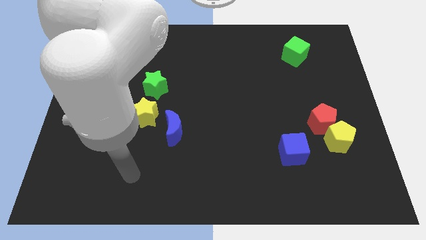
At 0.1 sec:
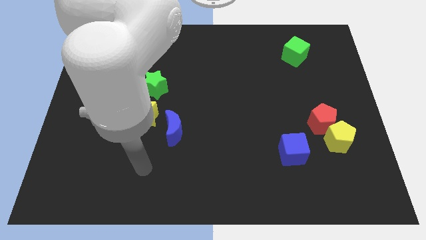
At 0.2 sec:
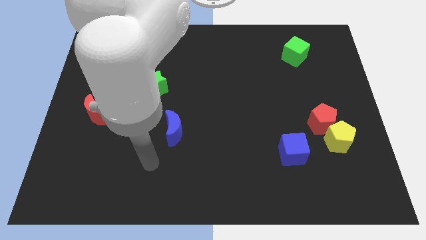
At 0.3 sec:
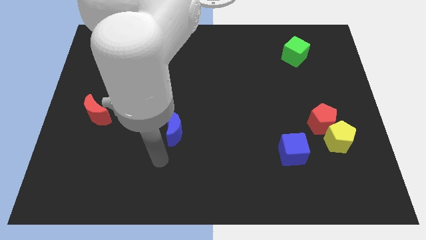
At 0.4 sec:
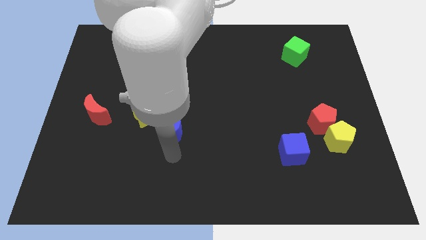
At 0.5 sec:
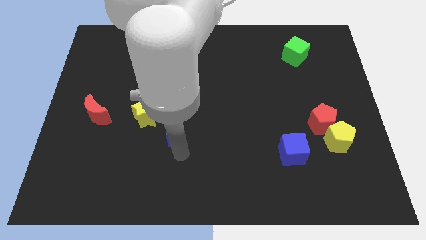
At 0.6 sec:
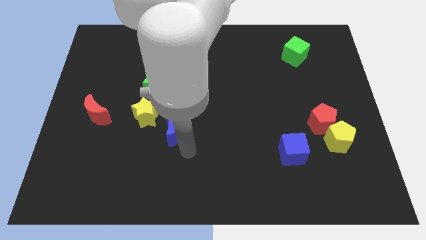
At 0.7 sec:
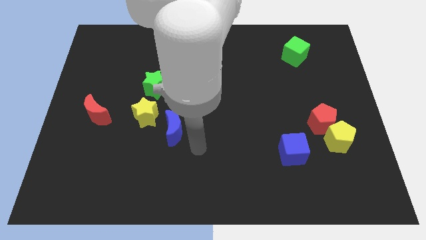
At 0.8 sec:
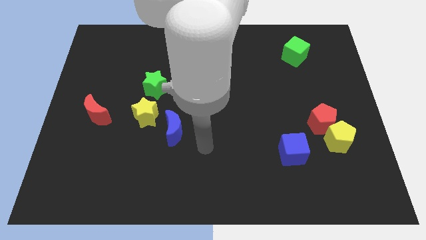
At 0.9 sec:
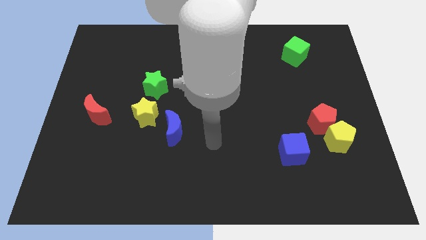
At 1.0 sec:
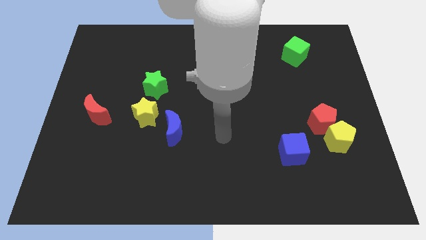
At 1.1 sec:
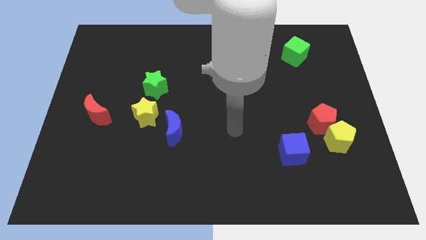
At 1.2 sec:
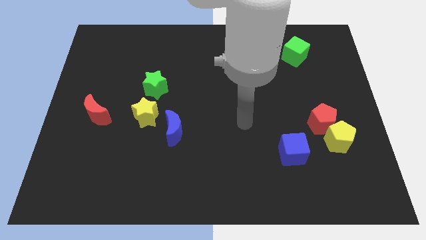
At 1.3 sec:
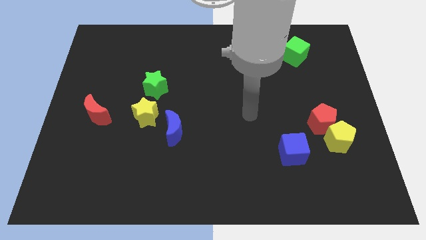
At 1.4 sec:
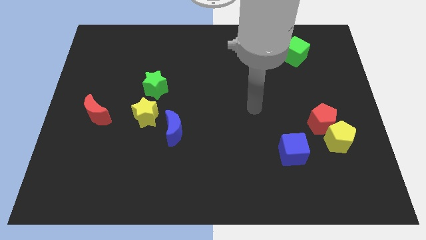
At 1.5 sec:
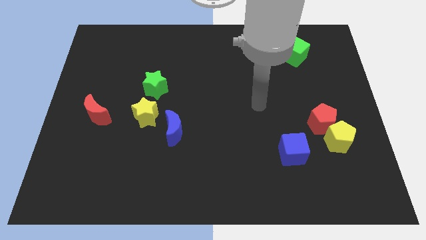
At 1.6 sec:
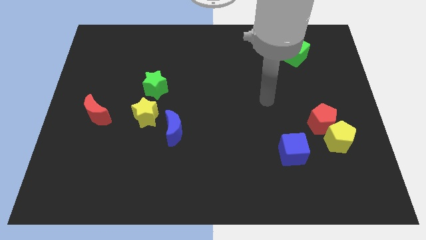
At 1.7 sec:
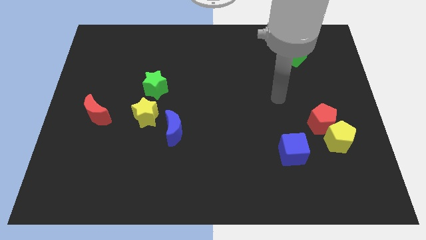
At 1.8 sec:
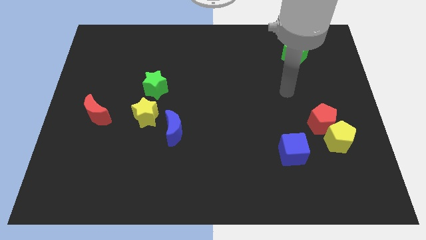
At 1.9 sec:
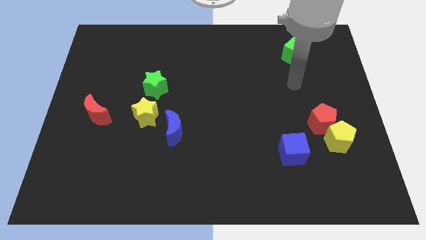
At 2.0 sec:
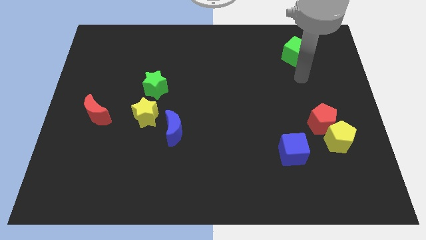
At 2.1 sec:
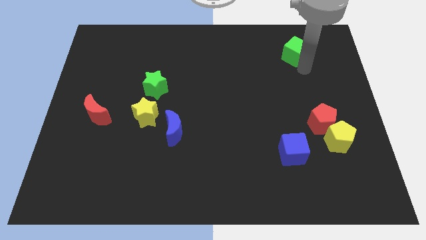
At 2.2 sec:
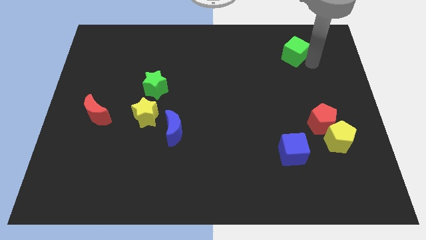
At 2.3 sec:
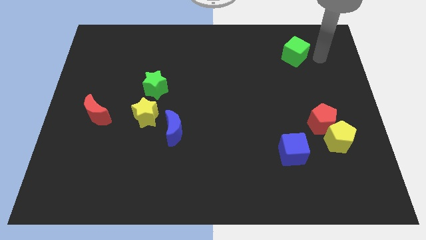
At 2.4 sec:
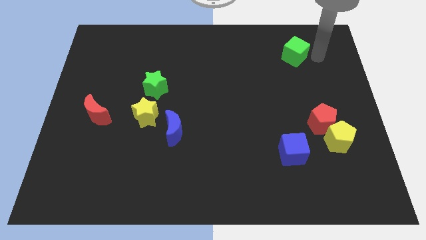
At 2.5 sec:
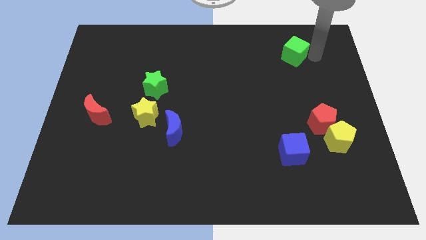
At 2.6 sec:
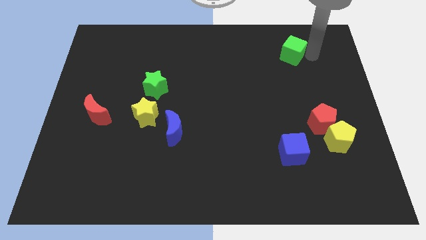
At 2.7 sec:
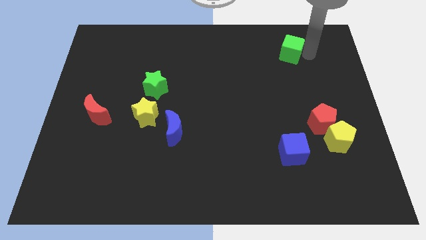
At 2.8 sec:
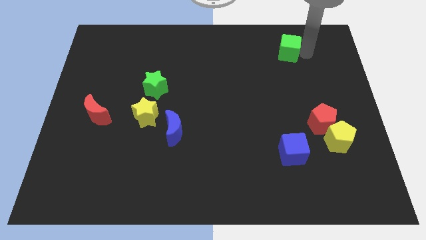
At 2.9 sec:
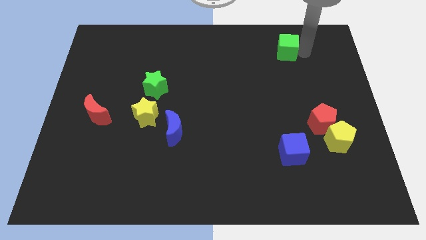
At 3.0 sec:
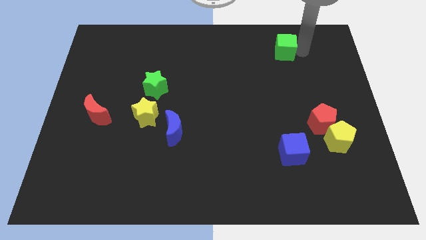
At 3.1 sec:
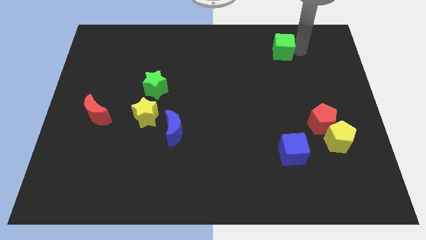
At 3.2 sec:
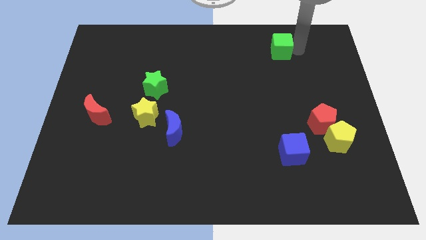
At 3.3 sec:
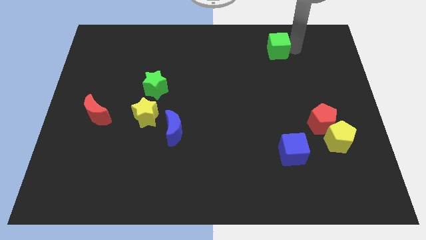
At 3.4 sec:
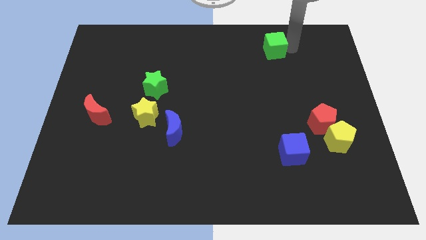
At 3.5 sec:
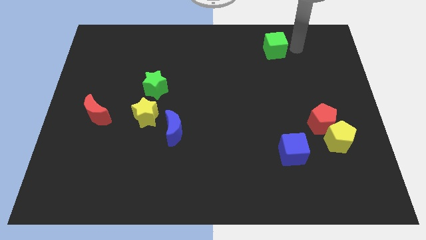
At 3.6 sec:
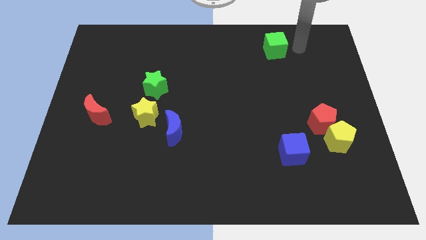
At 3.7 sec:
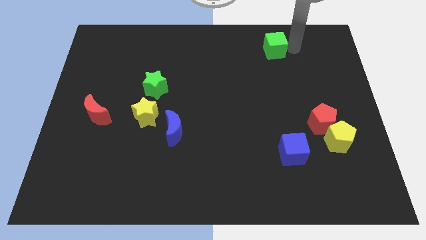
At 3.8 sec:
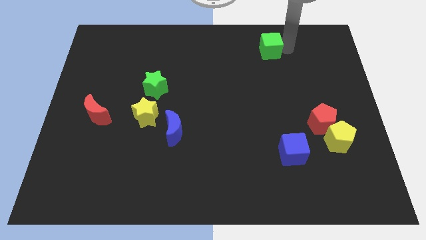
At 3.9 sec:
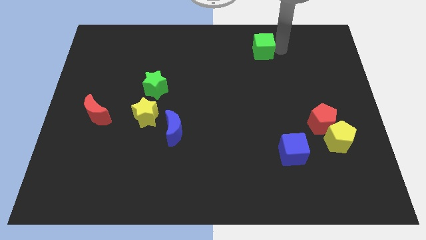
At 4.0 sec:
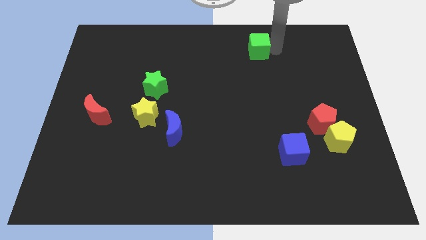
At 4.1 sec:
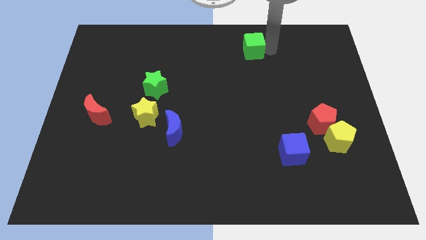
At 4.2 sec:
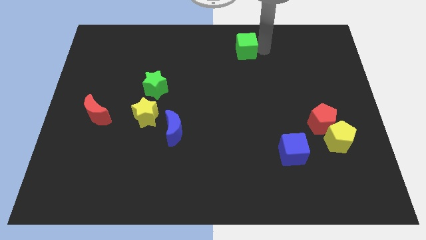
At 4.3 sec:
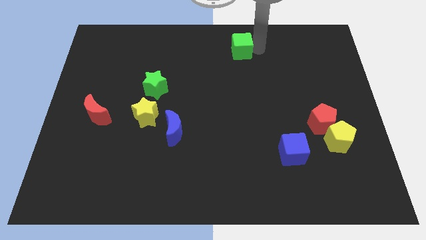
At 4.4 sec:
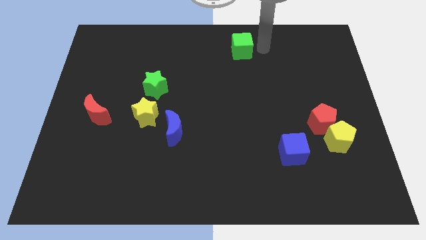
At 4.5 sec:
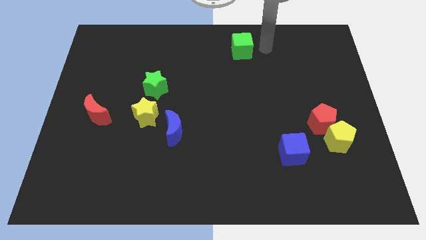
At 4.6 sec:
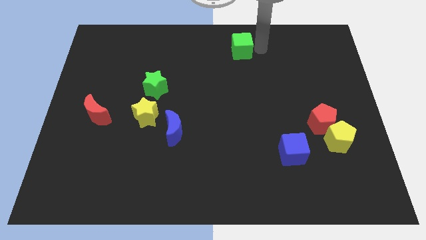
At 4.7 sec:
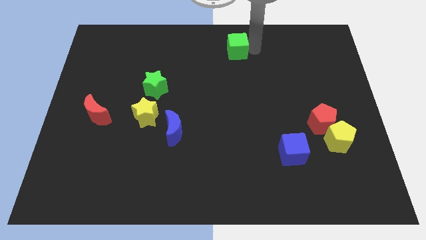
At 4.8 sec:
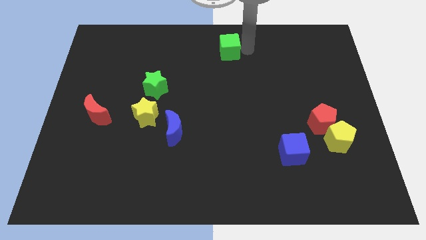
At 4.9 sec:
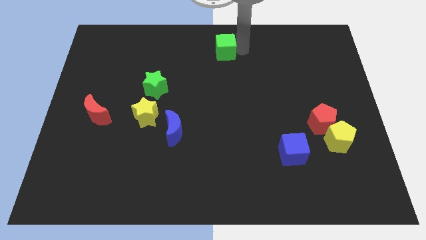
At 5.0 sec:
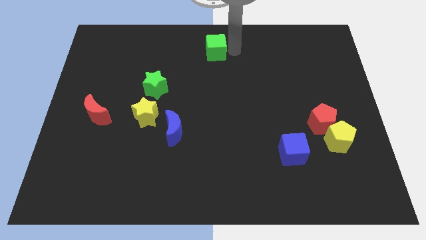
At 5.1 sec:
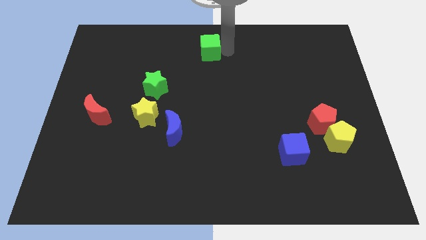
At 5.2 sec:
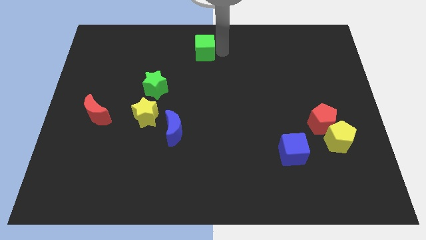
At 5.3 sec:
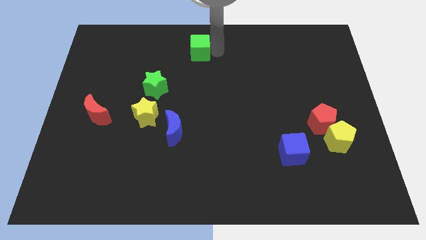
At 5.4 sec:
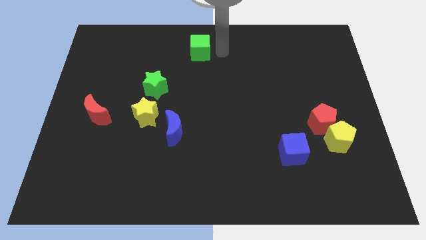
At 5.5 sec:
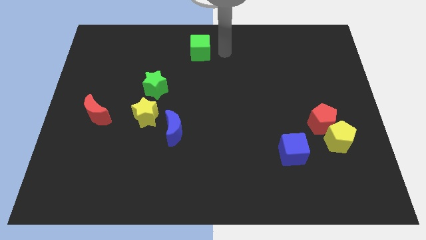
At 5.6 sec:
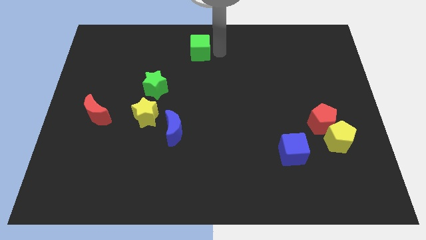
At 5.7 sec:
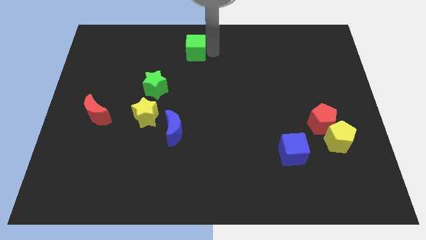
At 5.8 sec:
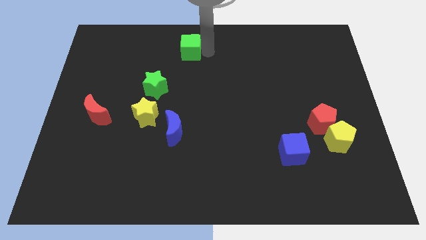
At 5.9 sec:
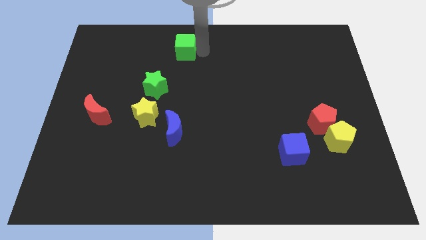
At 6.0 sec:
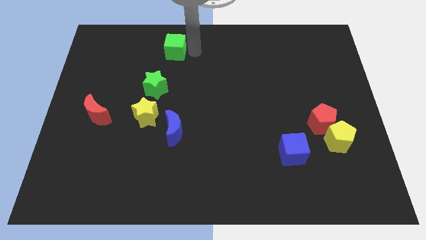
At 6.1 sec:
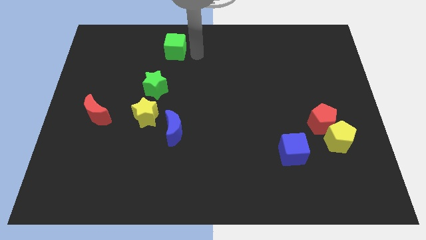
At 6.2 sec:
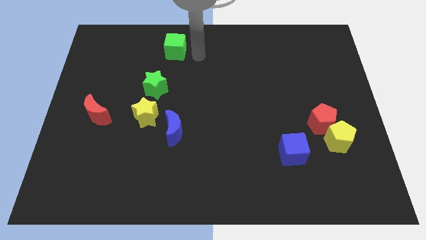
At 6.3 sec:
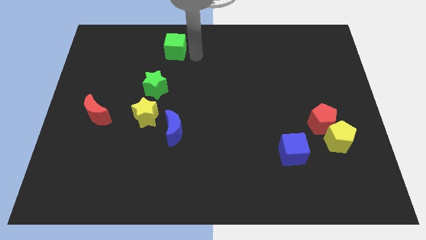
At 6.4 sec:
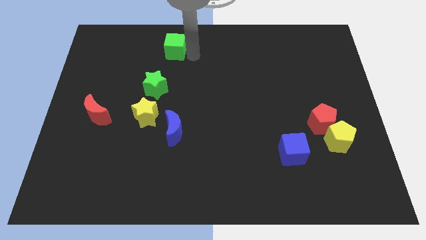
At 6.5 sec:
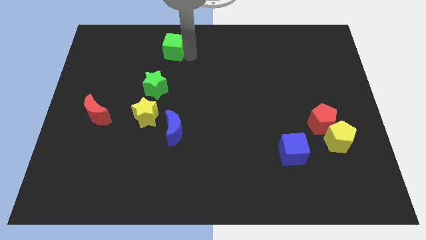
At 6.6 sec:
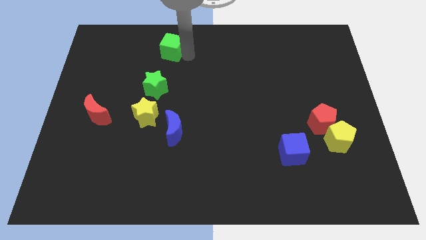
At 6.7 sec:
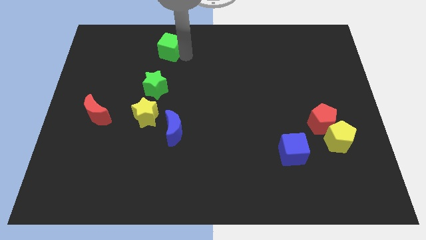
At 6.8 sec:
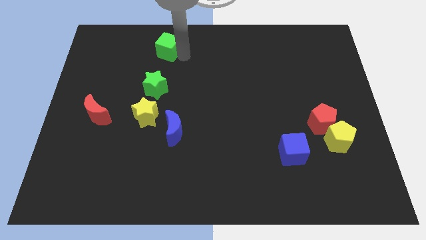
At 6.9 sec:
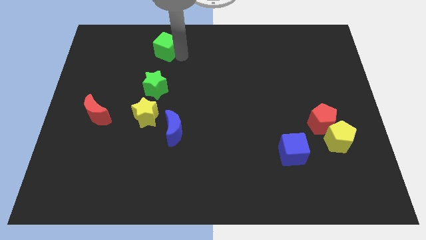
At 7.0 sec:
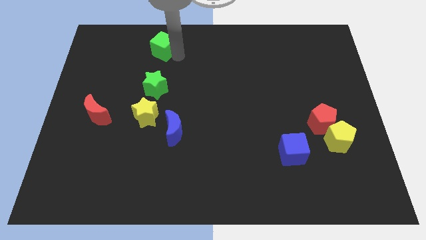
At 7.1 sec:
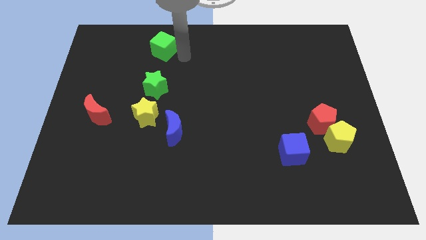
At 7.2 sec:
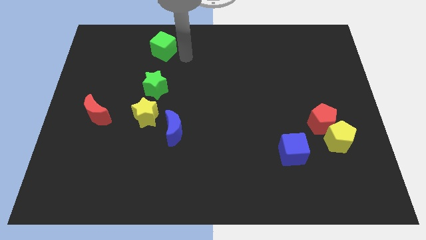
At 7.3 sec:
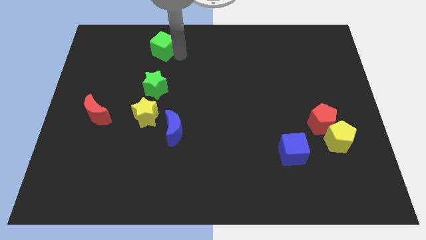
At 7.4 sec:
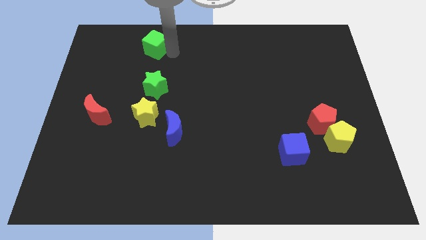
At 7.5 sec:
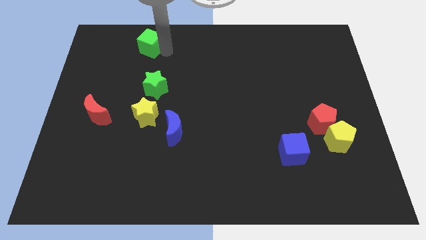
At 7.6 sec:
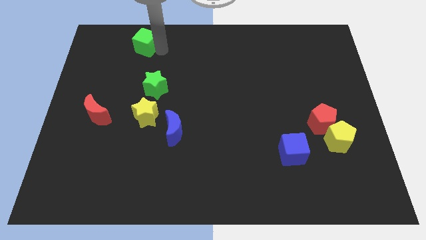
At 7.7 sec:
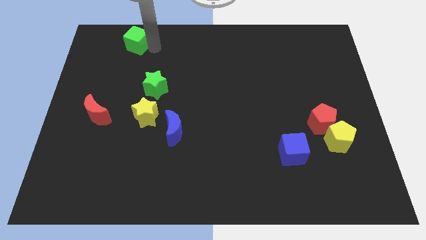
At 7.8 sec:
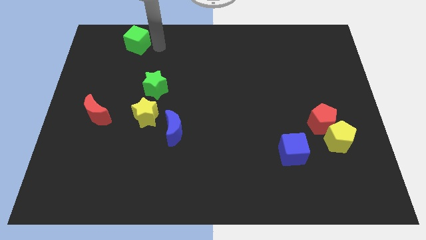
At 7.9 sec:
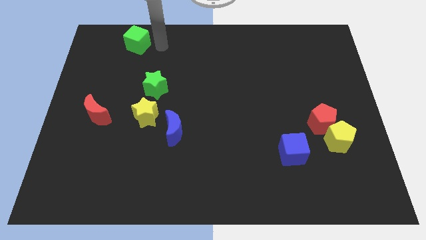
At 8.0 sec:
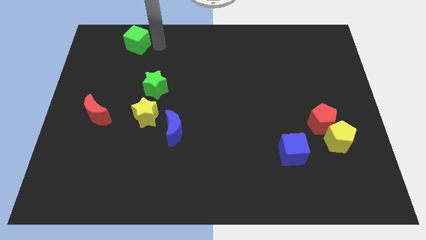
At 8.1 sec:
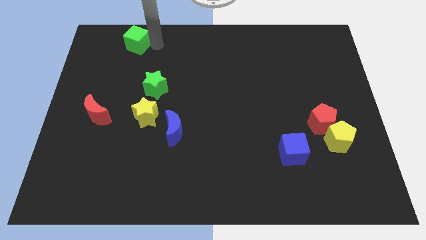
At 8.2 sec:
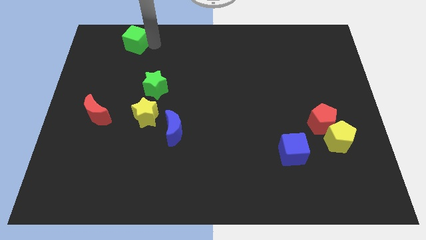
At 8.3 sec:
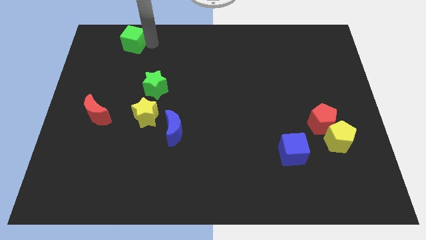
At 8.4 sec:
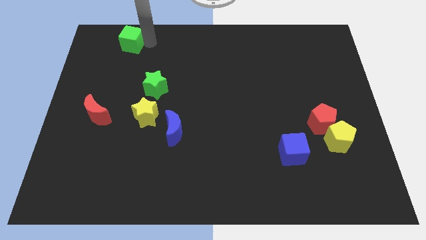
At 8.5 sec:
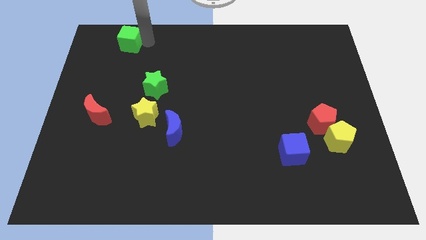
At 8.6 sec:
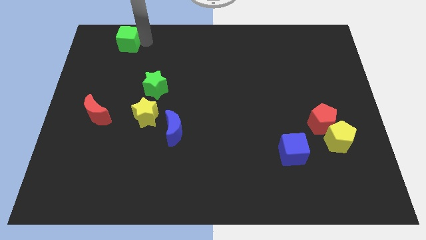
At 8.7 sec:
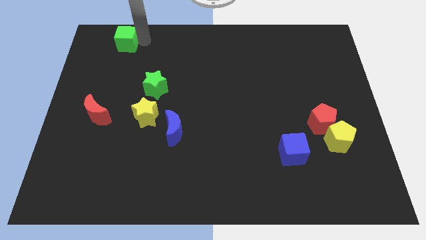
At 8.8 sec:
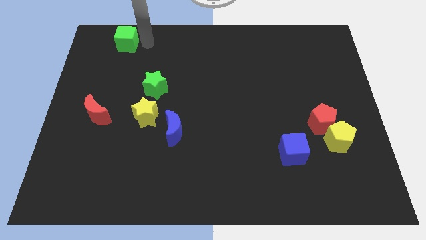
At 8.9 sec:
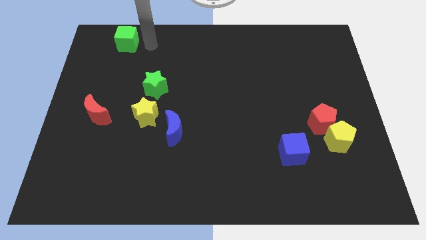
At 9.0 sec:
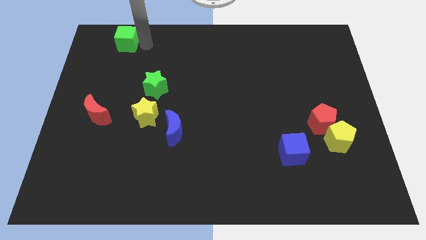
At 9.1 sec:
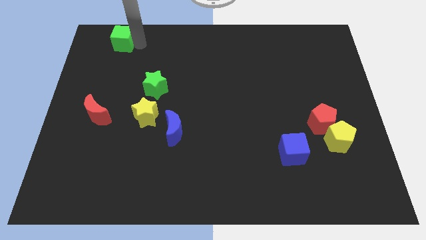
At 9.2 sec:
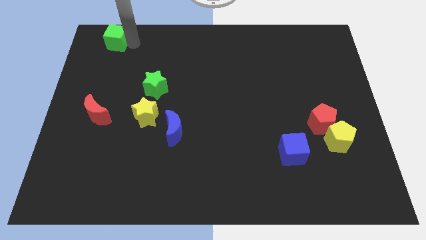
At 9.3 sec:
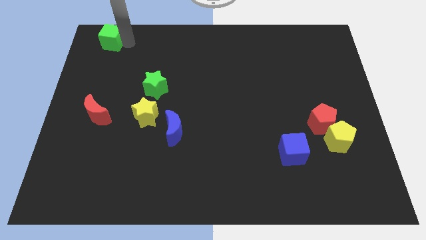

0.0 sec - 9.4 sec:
put the green cube to the upper left corner
